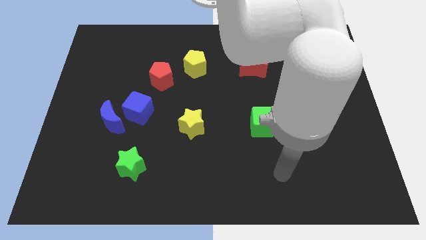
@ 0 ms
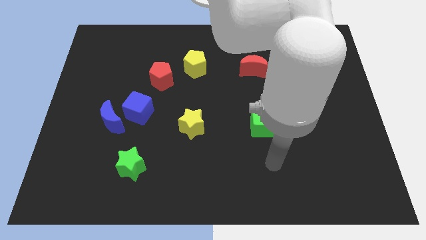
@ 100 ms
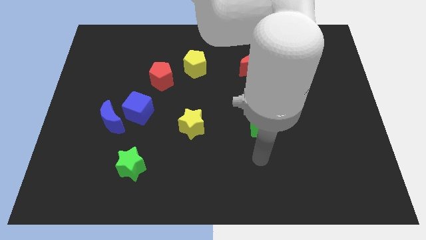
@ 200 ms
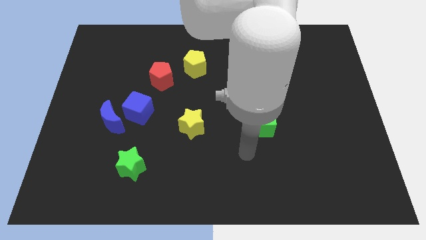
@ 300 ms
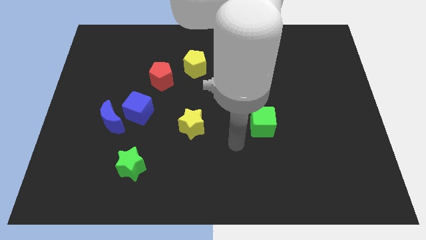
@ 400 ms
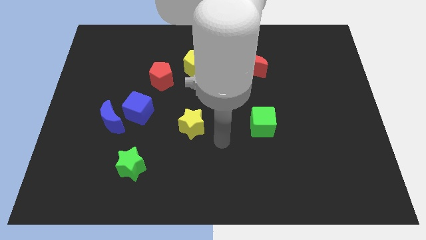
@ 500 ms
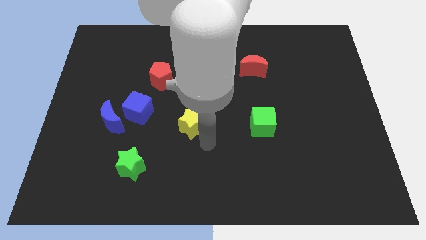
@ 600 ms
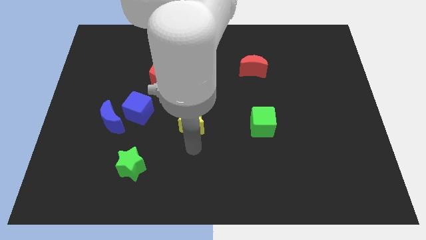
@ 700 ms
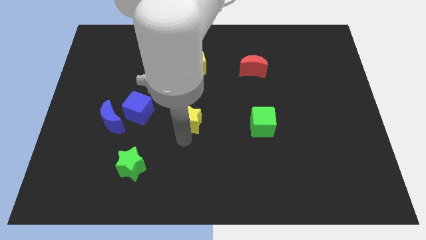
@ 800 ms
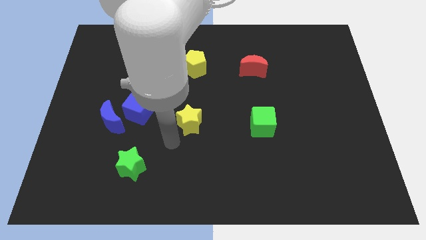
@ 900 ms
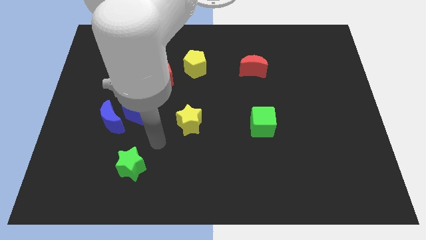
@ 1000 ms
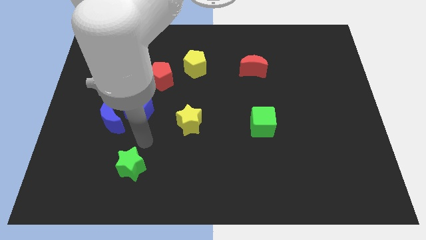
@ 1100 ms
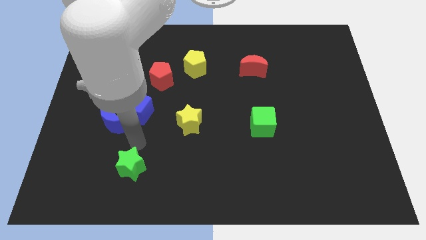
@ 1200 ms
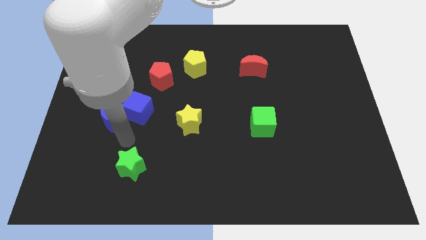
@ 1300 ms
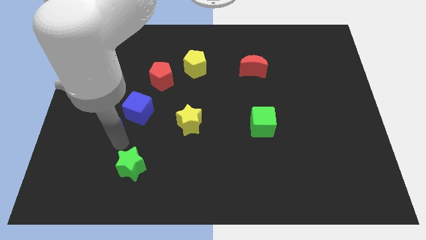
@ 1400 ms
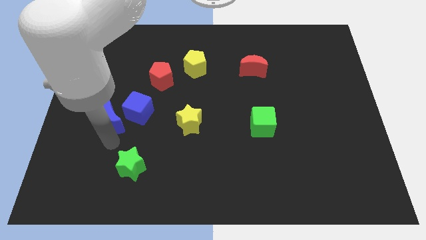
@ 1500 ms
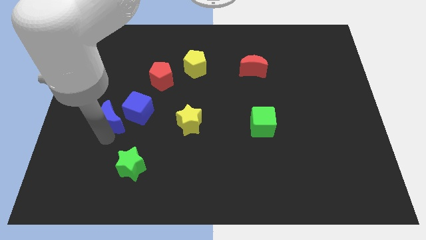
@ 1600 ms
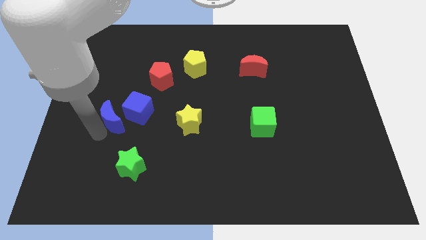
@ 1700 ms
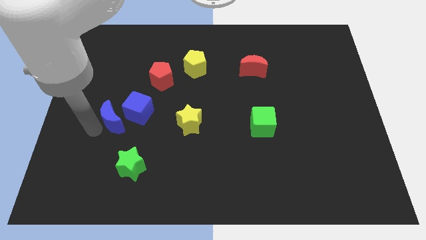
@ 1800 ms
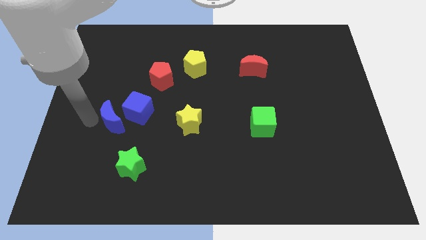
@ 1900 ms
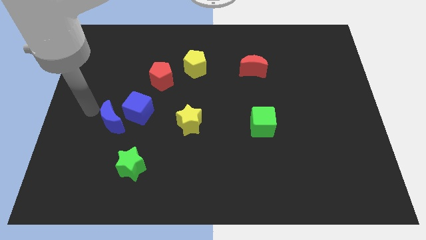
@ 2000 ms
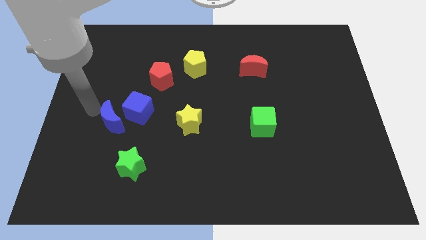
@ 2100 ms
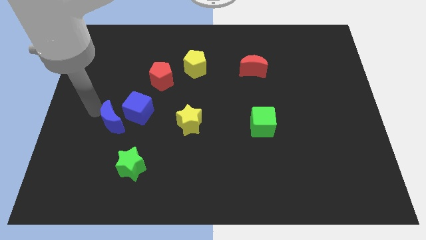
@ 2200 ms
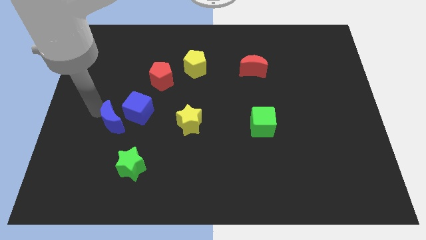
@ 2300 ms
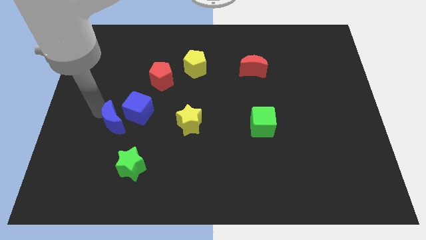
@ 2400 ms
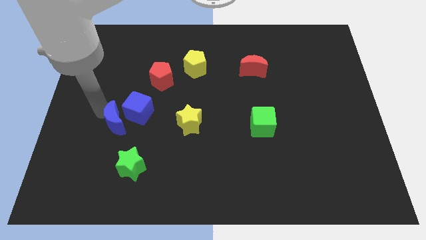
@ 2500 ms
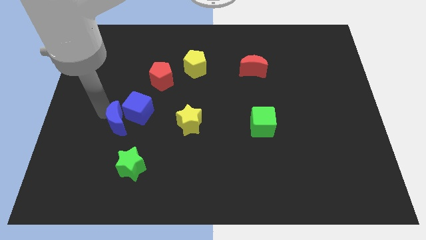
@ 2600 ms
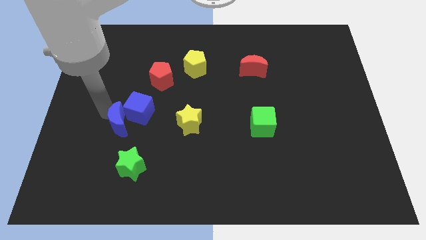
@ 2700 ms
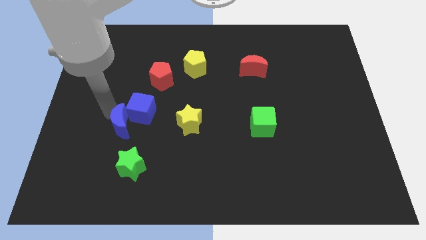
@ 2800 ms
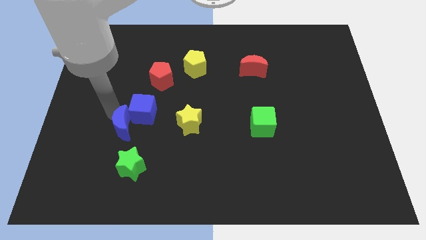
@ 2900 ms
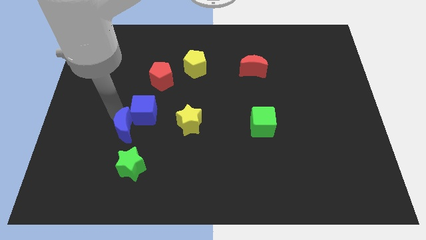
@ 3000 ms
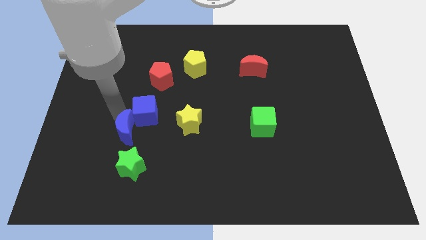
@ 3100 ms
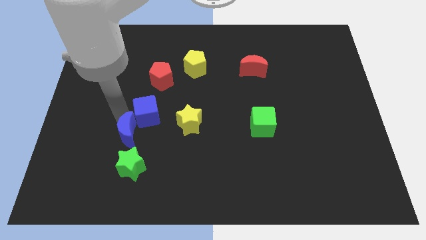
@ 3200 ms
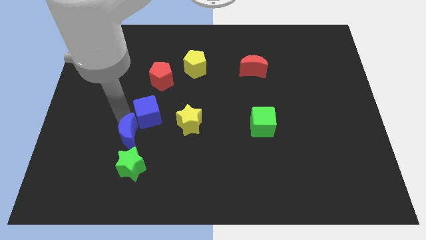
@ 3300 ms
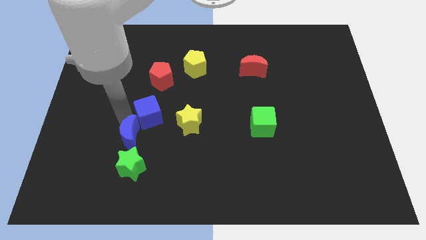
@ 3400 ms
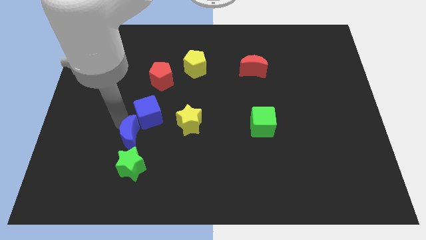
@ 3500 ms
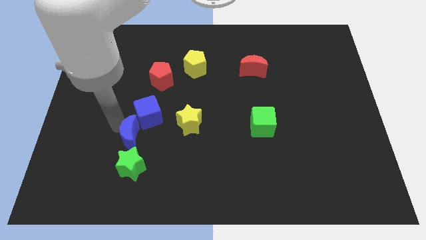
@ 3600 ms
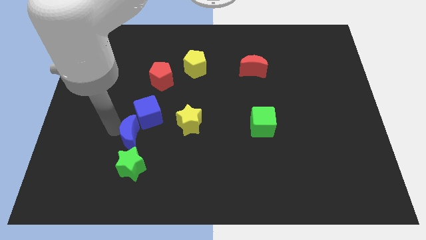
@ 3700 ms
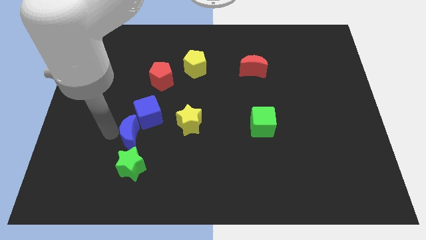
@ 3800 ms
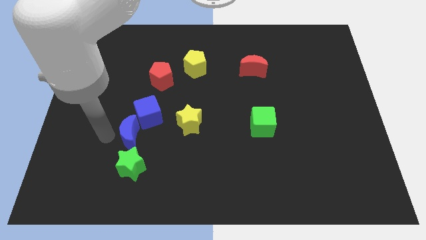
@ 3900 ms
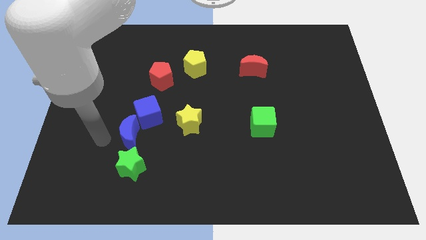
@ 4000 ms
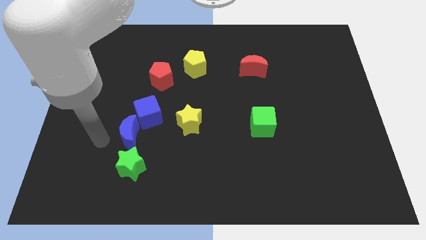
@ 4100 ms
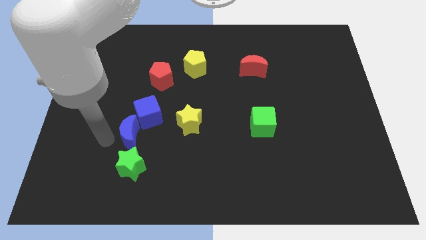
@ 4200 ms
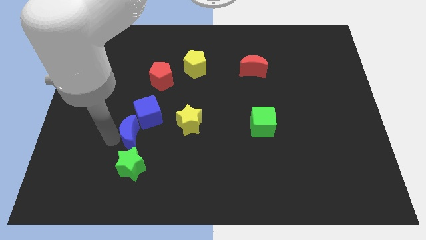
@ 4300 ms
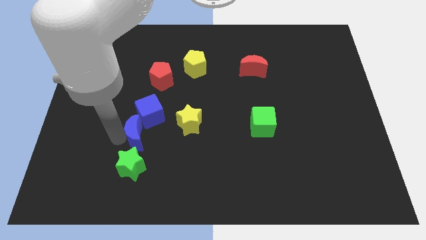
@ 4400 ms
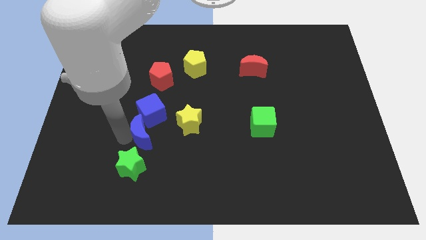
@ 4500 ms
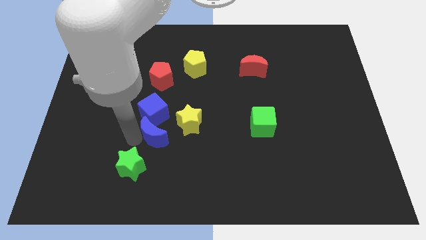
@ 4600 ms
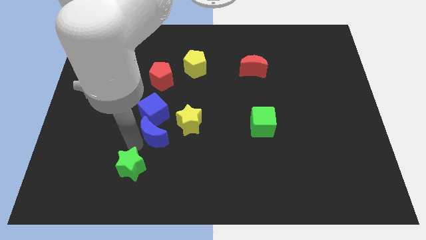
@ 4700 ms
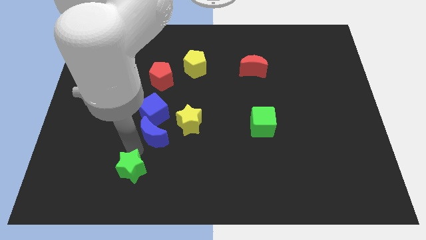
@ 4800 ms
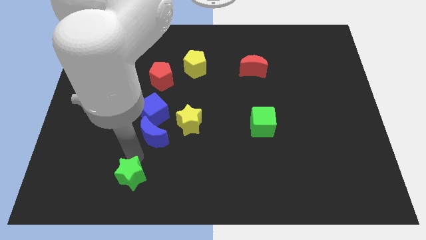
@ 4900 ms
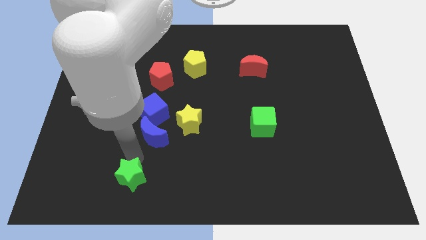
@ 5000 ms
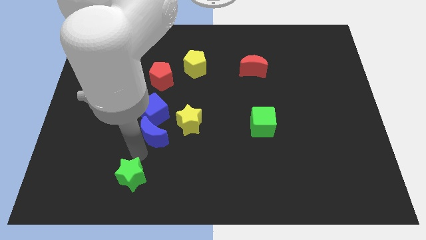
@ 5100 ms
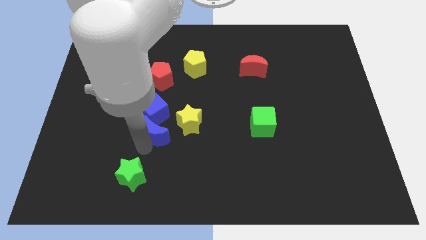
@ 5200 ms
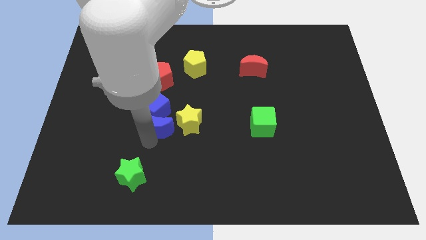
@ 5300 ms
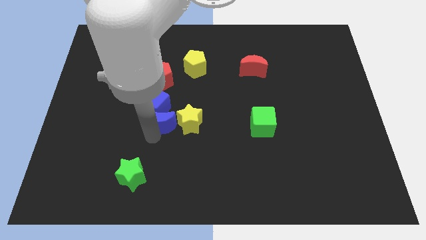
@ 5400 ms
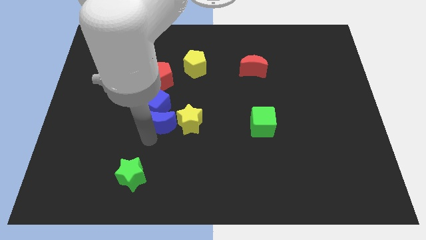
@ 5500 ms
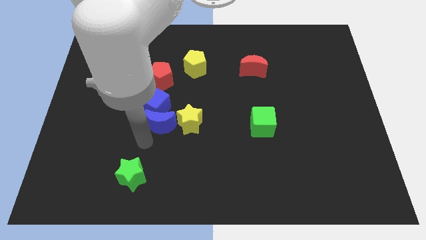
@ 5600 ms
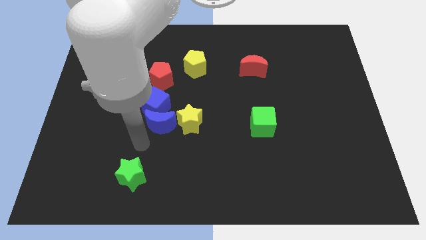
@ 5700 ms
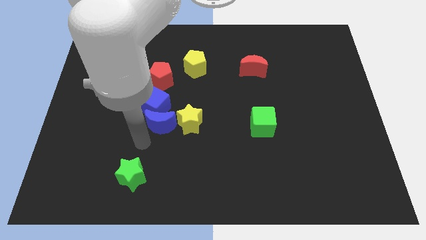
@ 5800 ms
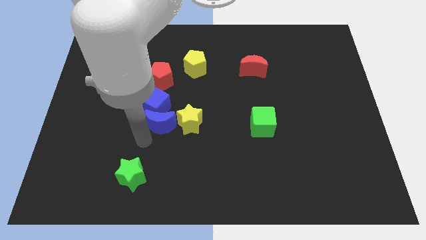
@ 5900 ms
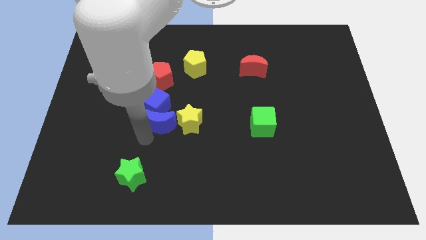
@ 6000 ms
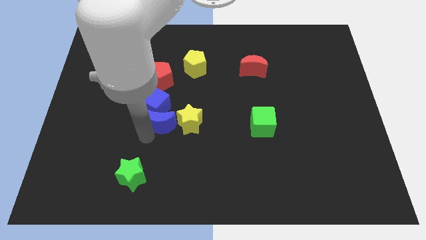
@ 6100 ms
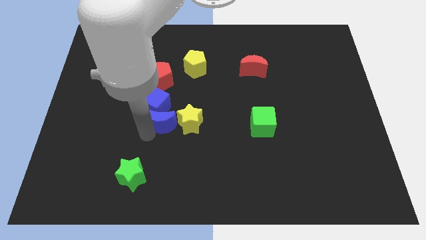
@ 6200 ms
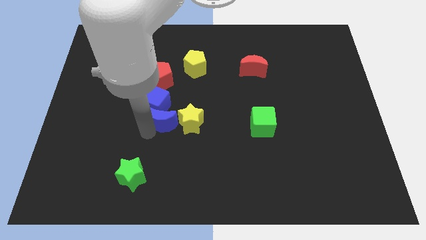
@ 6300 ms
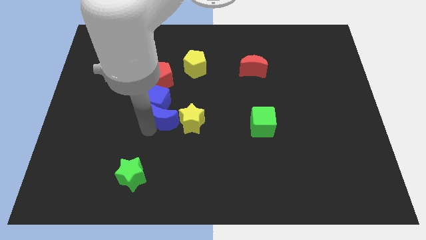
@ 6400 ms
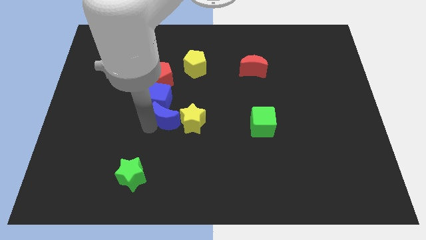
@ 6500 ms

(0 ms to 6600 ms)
move the blue moon to the center of the board

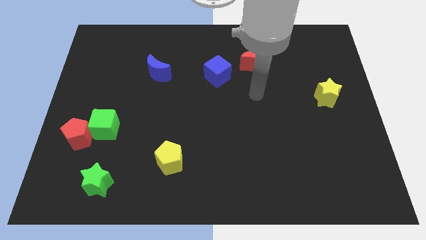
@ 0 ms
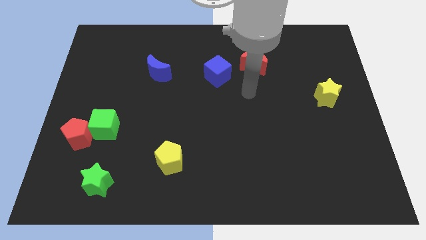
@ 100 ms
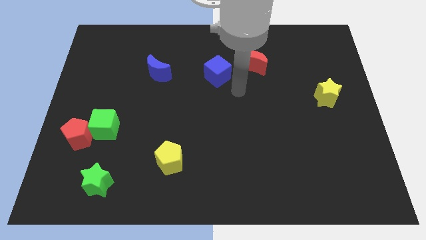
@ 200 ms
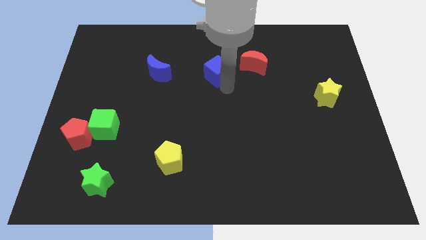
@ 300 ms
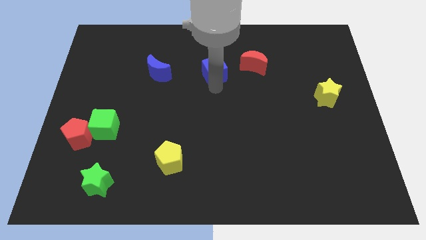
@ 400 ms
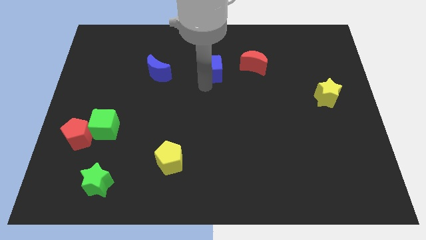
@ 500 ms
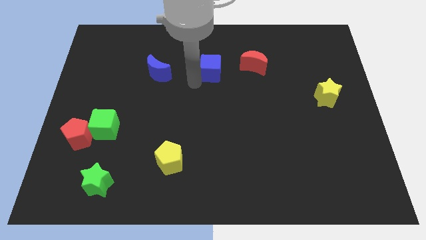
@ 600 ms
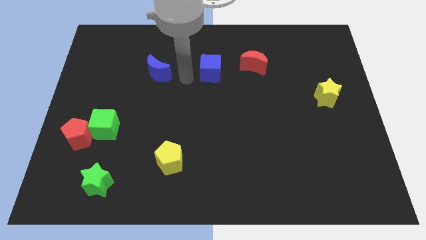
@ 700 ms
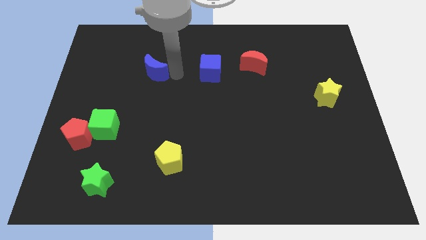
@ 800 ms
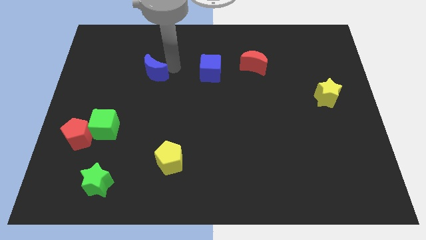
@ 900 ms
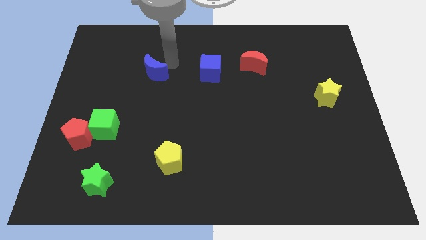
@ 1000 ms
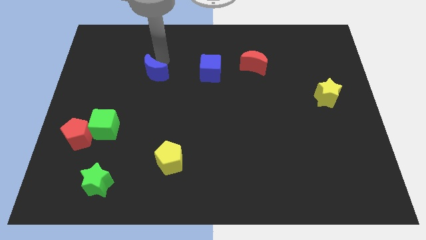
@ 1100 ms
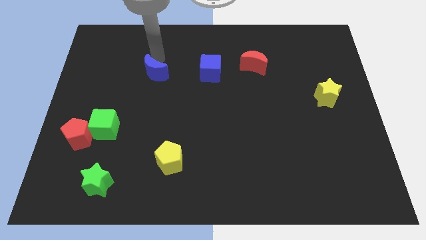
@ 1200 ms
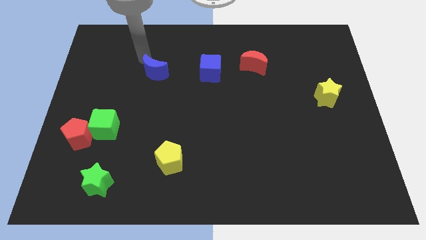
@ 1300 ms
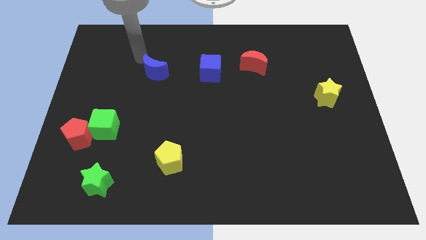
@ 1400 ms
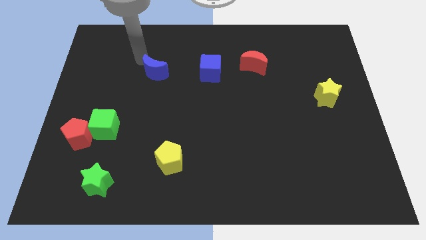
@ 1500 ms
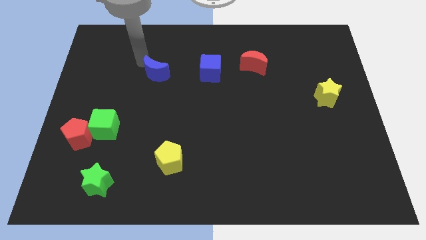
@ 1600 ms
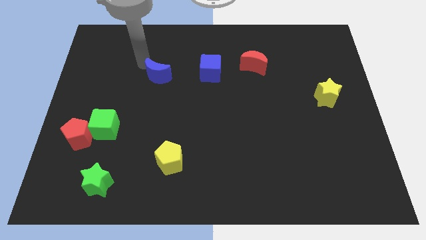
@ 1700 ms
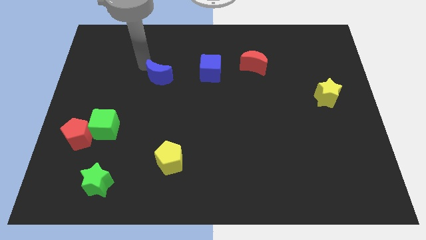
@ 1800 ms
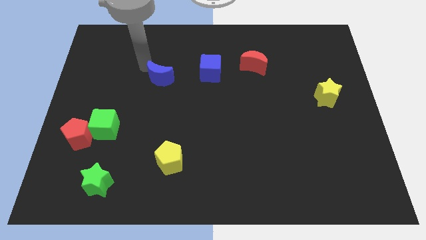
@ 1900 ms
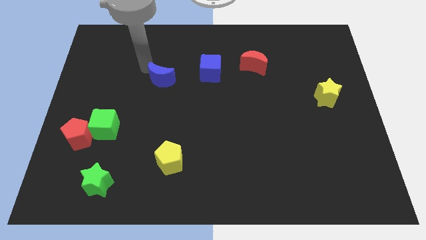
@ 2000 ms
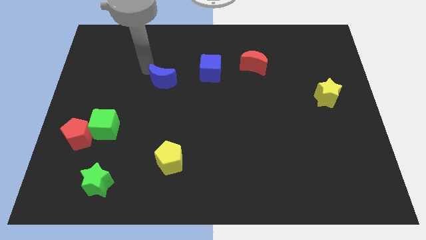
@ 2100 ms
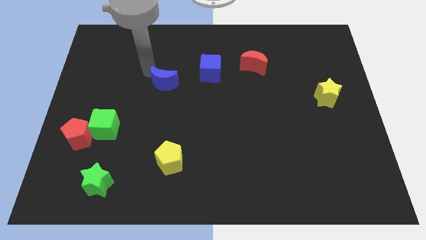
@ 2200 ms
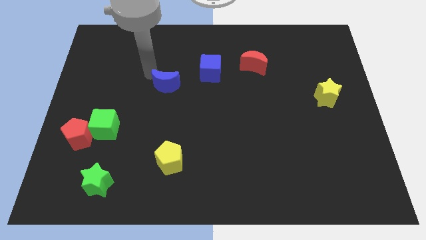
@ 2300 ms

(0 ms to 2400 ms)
push the blue moon to the center
